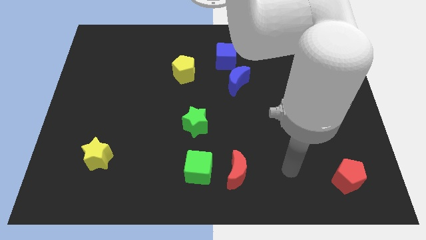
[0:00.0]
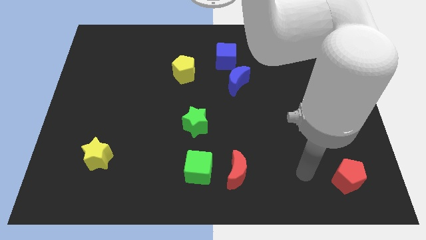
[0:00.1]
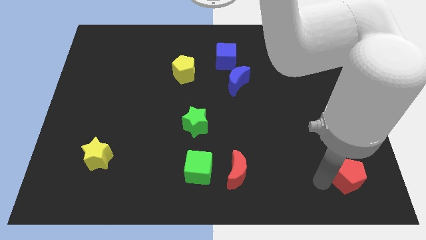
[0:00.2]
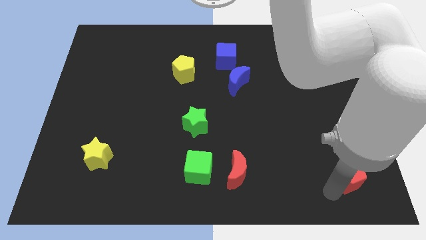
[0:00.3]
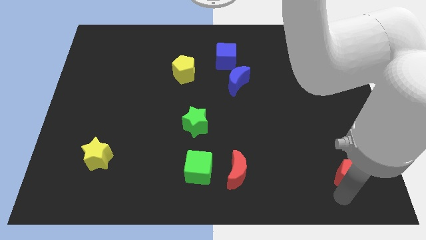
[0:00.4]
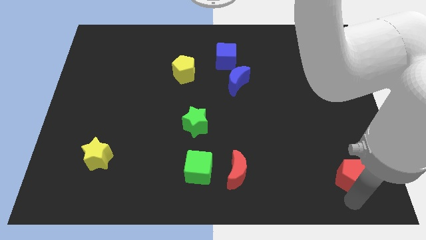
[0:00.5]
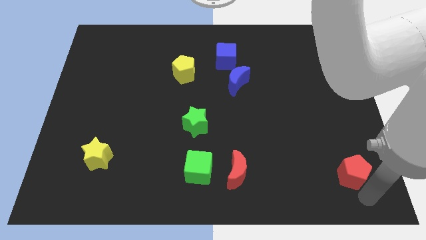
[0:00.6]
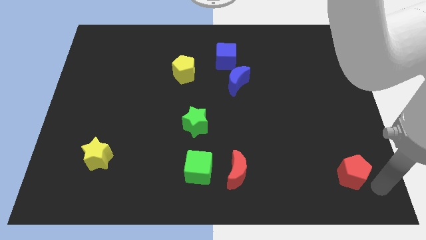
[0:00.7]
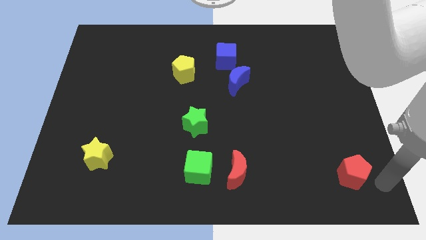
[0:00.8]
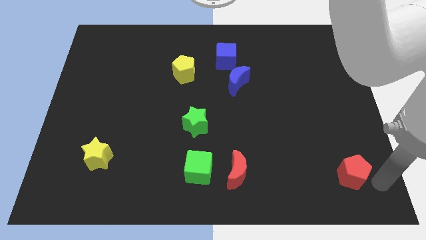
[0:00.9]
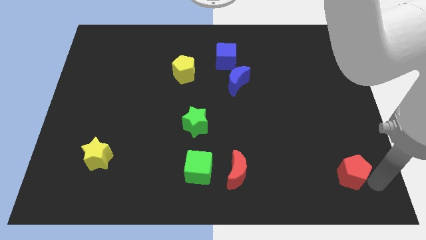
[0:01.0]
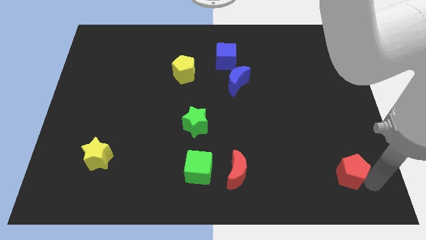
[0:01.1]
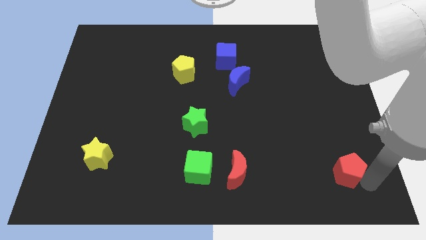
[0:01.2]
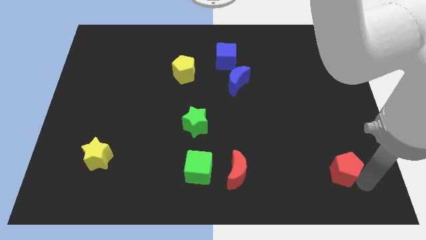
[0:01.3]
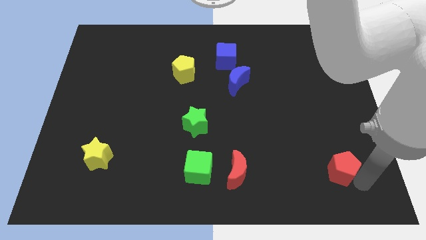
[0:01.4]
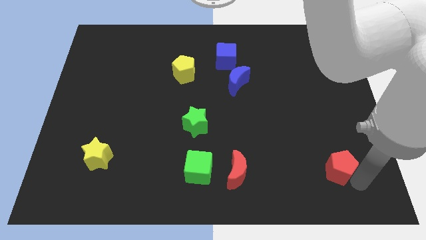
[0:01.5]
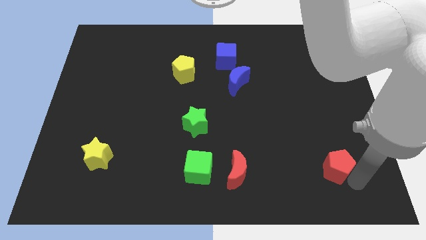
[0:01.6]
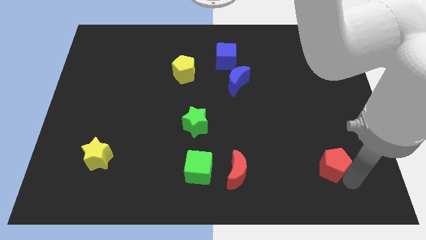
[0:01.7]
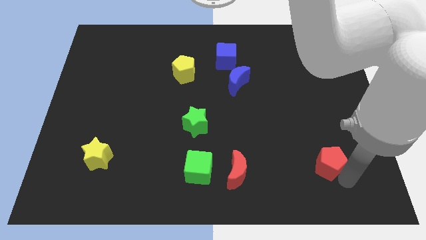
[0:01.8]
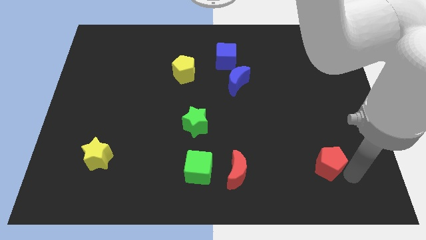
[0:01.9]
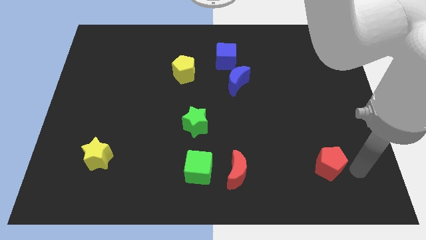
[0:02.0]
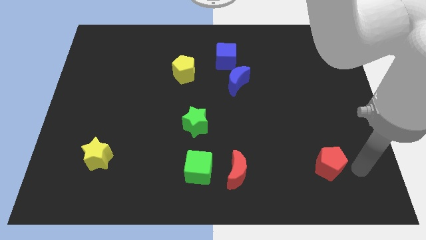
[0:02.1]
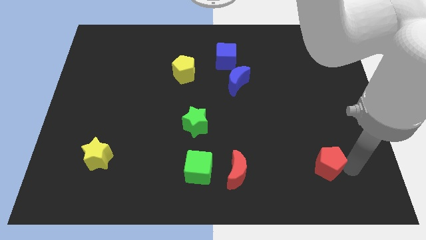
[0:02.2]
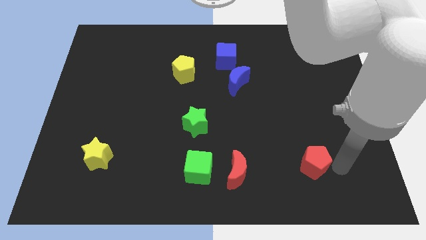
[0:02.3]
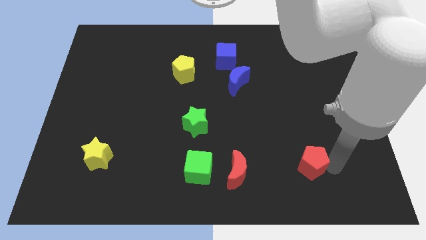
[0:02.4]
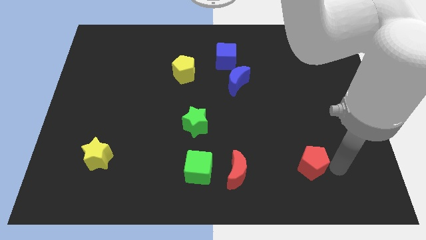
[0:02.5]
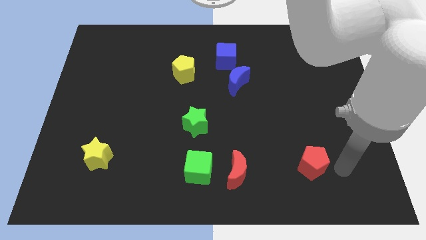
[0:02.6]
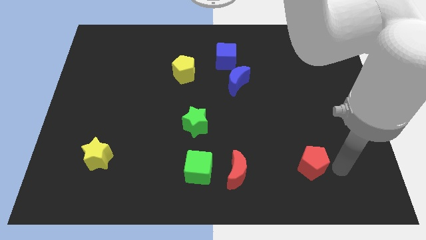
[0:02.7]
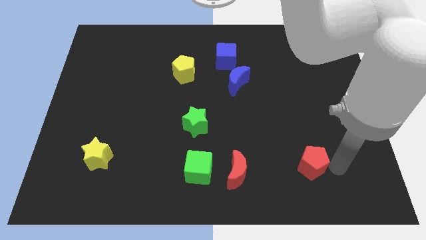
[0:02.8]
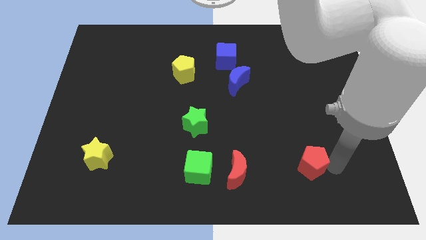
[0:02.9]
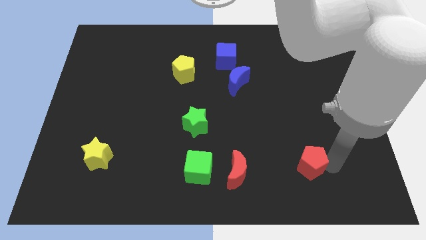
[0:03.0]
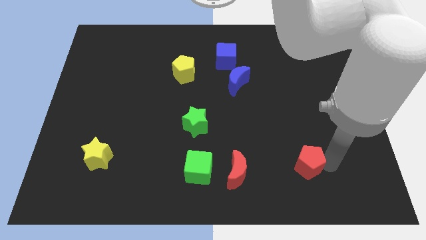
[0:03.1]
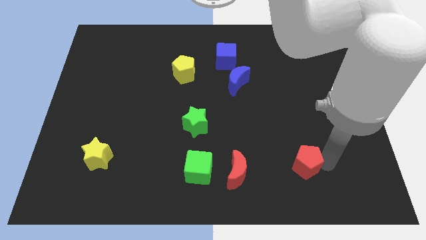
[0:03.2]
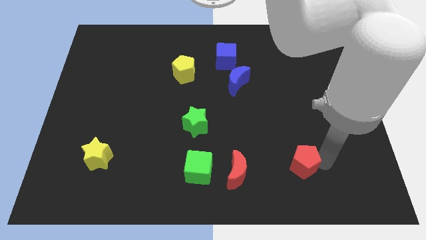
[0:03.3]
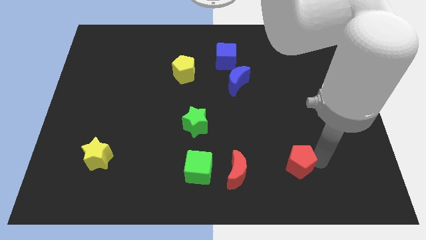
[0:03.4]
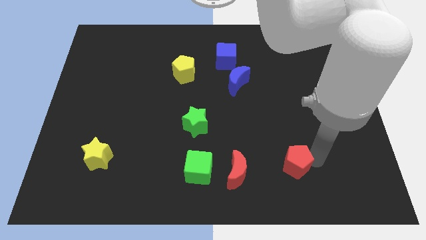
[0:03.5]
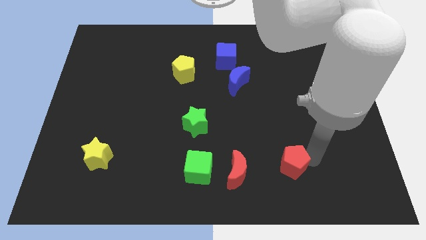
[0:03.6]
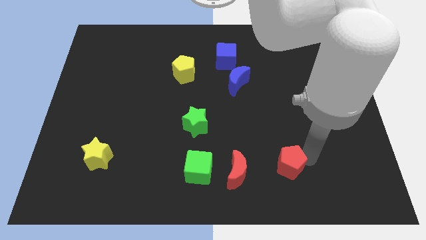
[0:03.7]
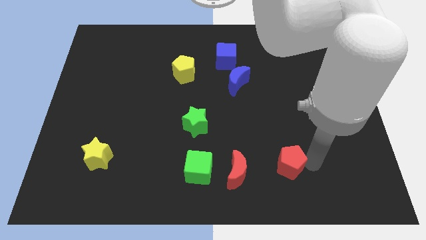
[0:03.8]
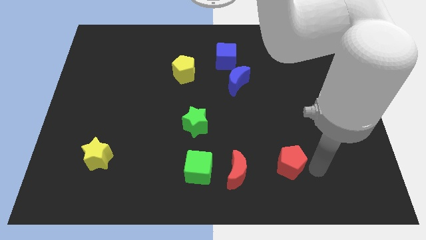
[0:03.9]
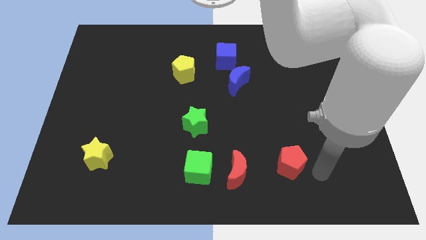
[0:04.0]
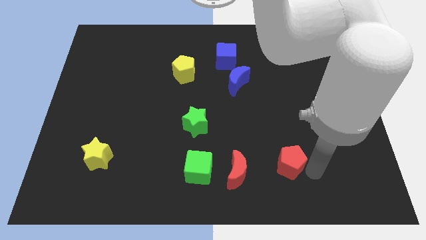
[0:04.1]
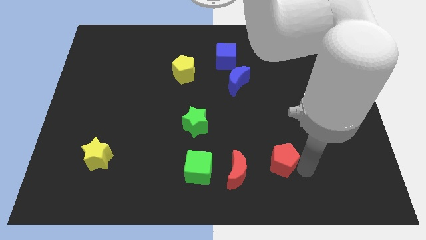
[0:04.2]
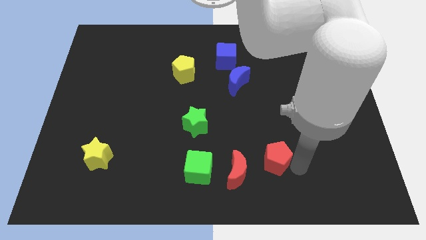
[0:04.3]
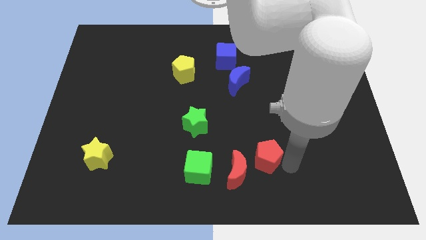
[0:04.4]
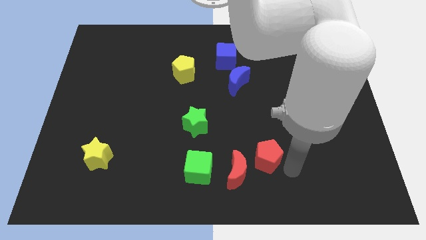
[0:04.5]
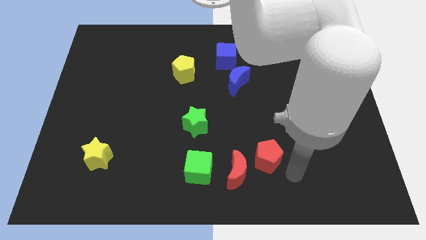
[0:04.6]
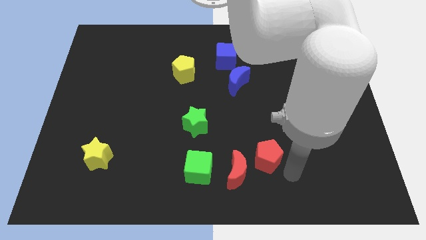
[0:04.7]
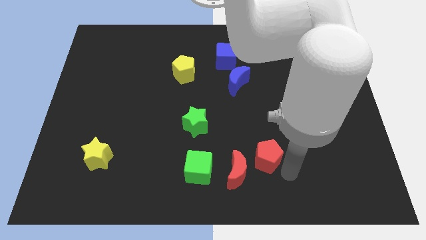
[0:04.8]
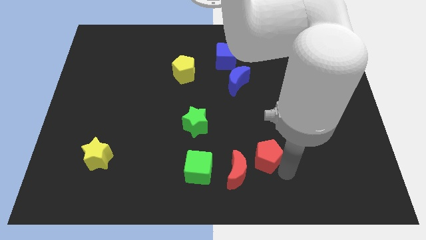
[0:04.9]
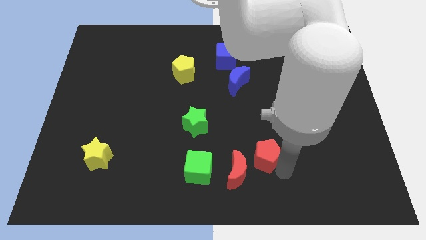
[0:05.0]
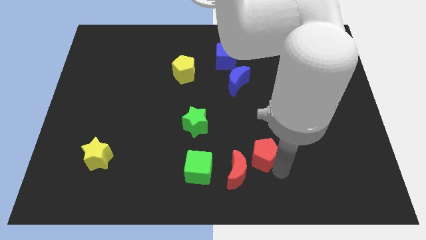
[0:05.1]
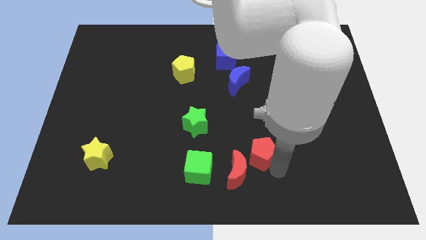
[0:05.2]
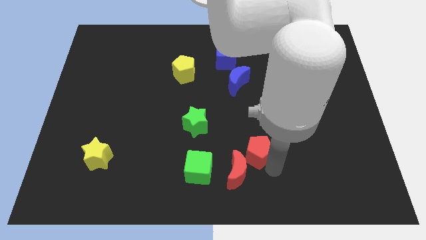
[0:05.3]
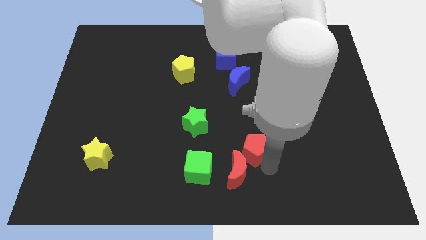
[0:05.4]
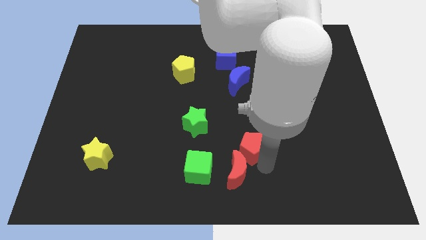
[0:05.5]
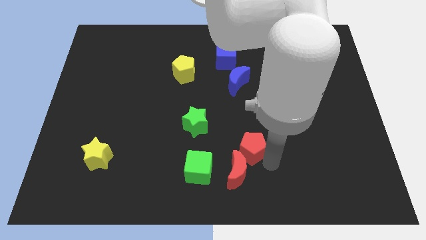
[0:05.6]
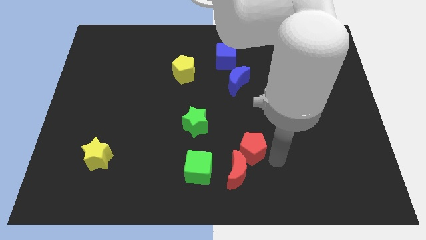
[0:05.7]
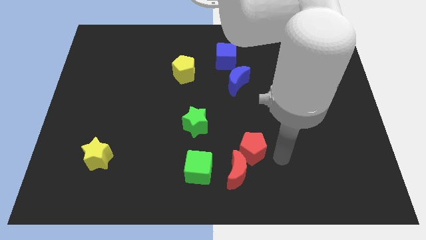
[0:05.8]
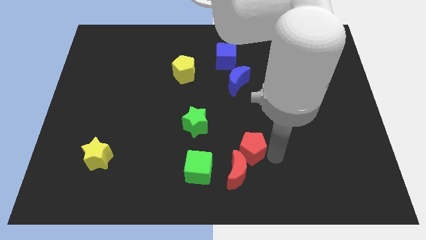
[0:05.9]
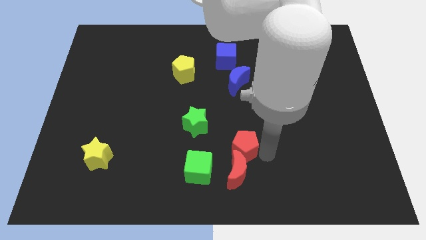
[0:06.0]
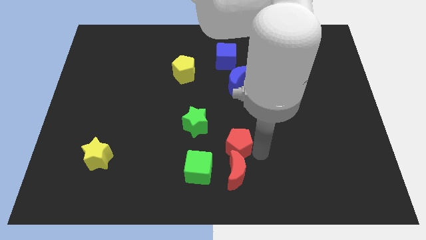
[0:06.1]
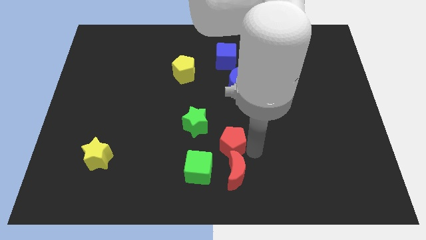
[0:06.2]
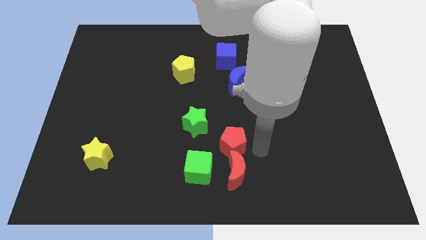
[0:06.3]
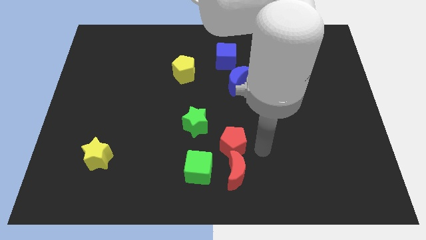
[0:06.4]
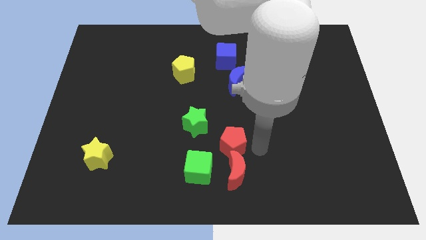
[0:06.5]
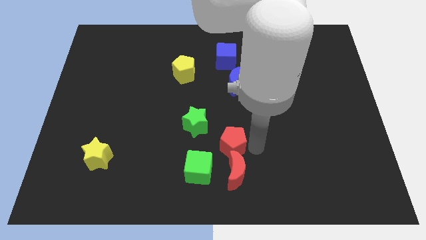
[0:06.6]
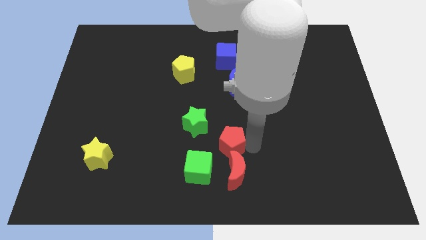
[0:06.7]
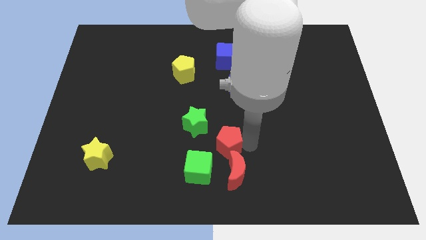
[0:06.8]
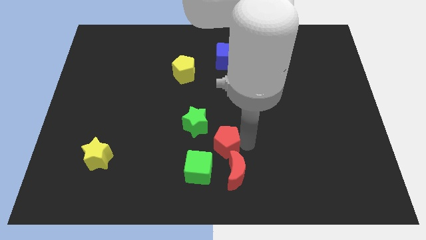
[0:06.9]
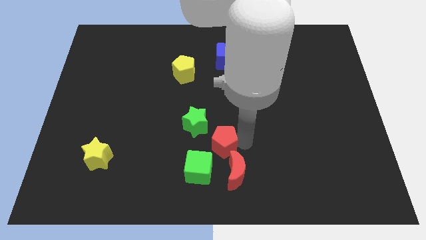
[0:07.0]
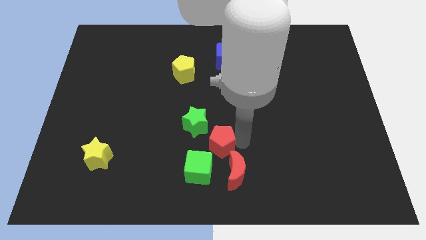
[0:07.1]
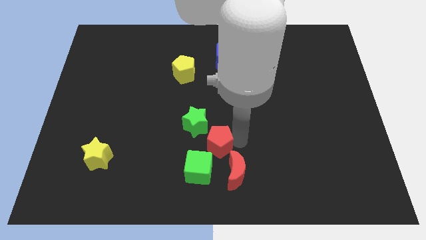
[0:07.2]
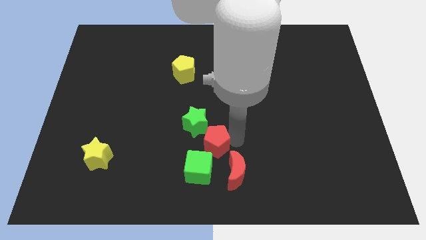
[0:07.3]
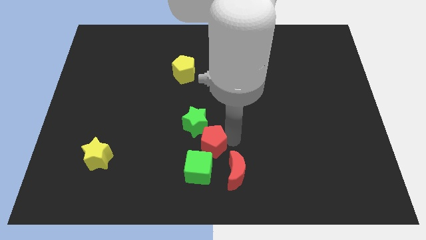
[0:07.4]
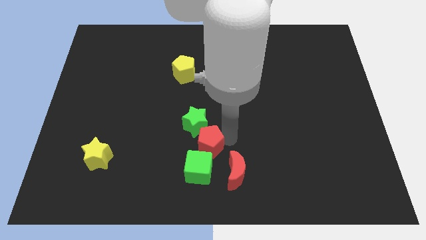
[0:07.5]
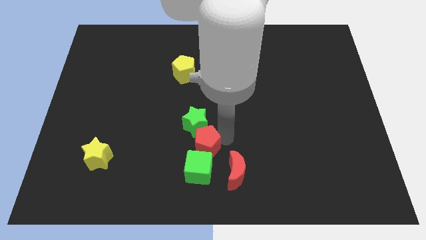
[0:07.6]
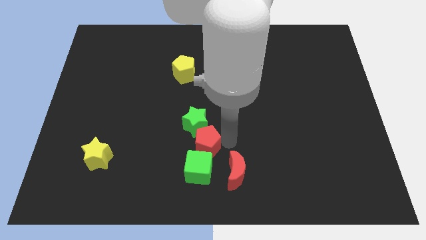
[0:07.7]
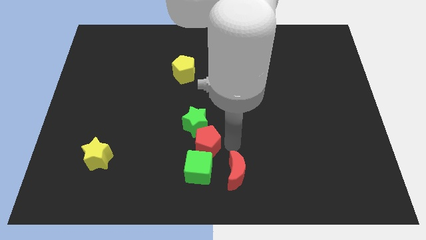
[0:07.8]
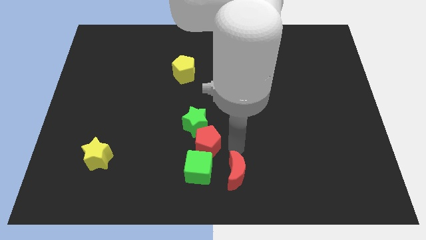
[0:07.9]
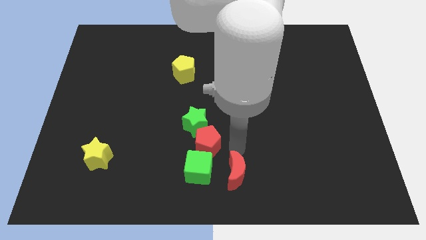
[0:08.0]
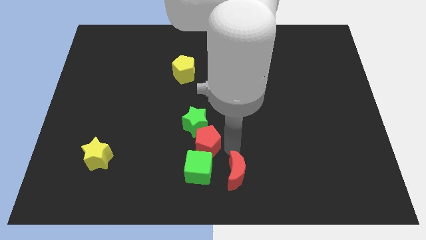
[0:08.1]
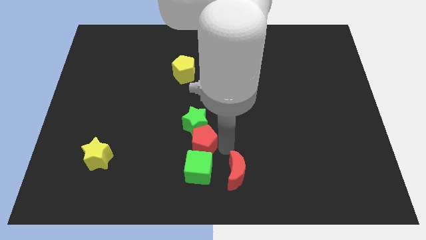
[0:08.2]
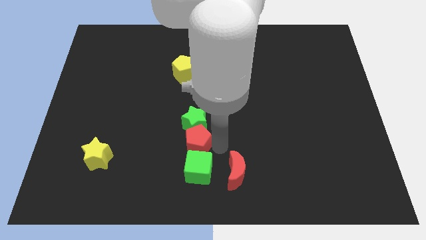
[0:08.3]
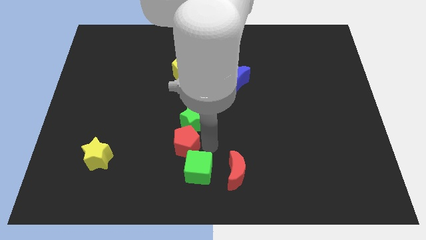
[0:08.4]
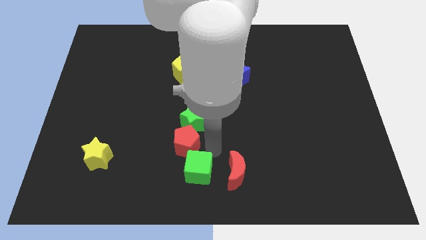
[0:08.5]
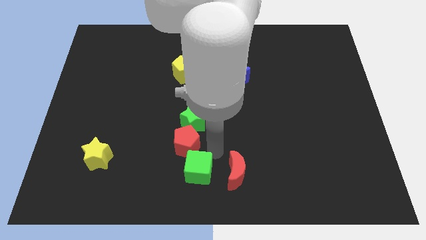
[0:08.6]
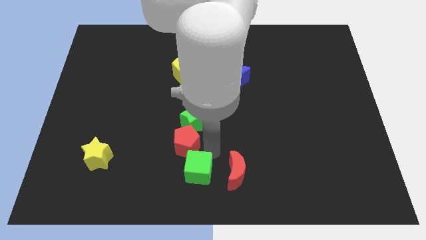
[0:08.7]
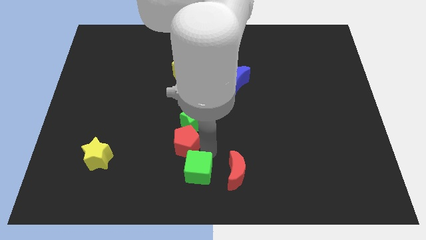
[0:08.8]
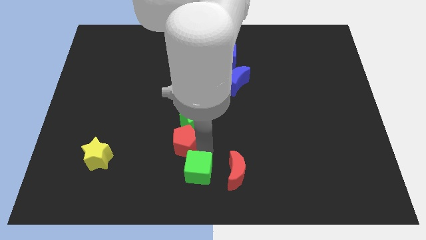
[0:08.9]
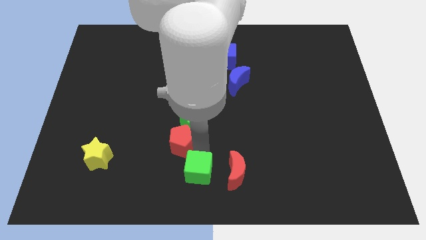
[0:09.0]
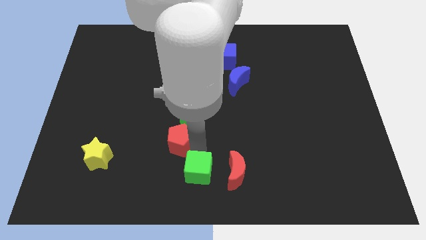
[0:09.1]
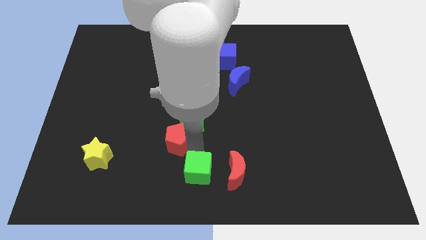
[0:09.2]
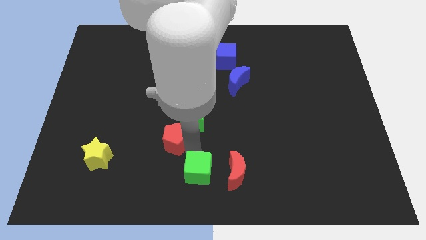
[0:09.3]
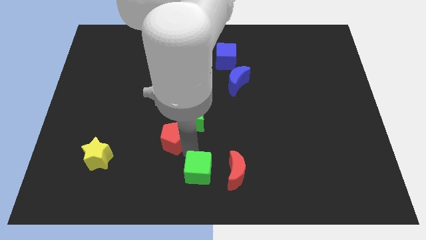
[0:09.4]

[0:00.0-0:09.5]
put the red pentagon to the left of the green star
